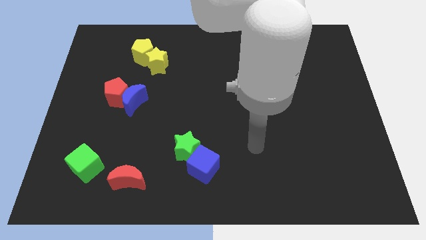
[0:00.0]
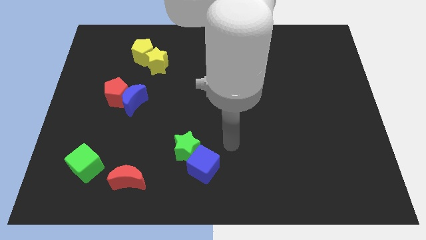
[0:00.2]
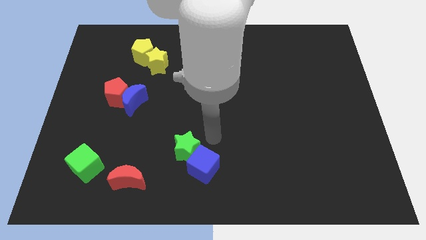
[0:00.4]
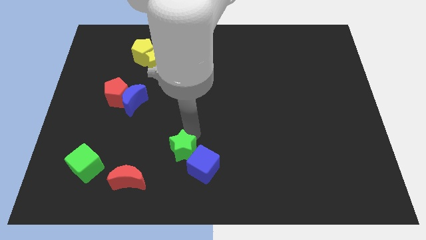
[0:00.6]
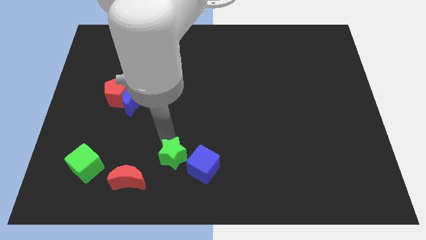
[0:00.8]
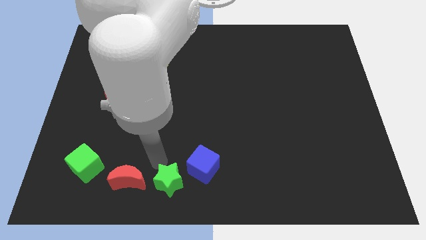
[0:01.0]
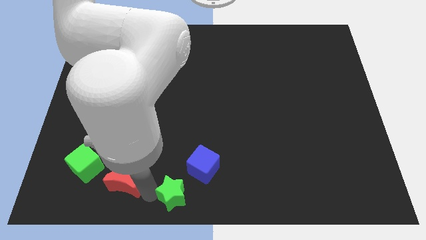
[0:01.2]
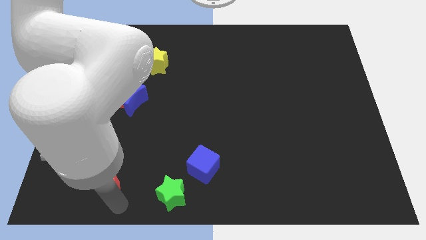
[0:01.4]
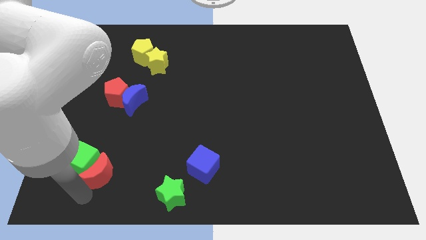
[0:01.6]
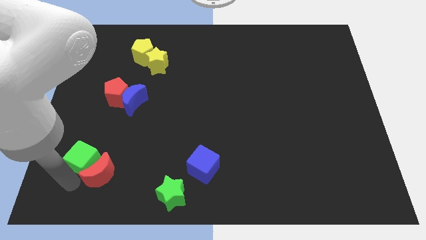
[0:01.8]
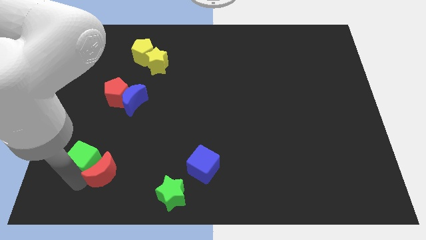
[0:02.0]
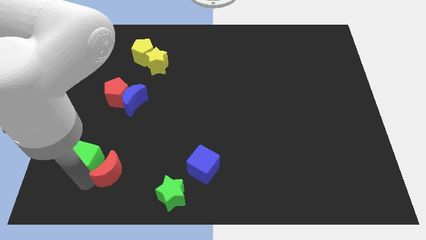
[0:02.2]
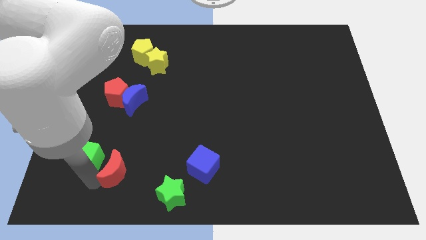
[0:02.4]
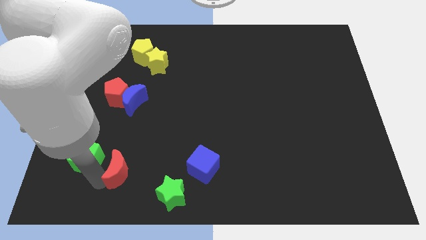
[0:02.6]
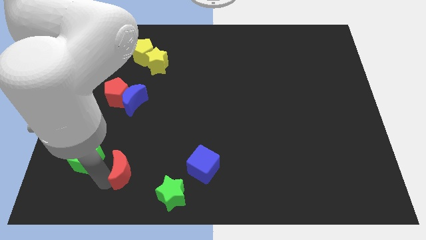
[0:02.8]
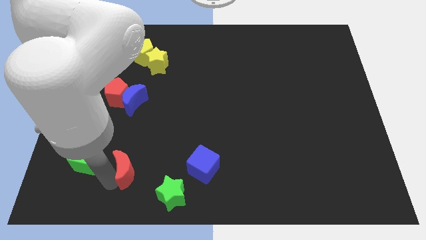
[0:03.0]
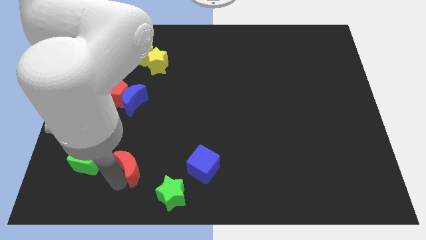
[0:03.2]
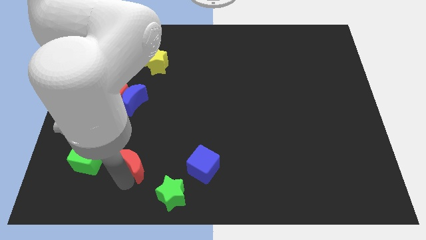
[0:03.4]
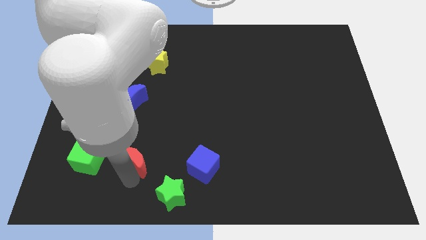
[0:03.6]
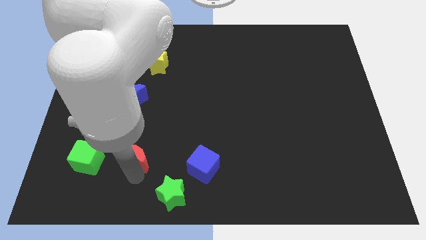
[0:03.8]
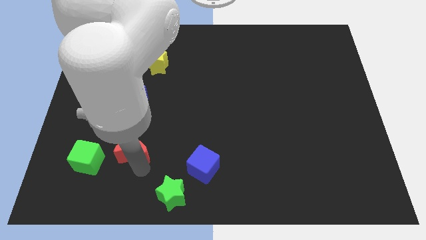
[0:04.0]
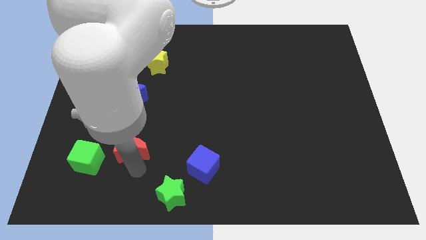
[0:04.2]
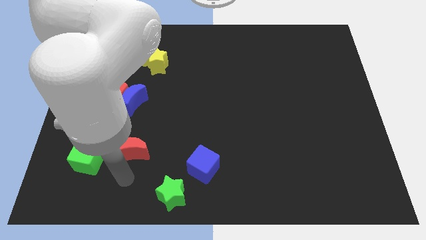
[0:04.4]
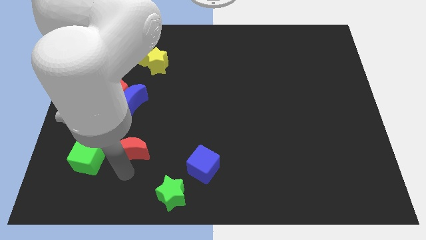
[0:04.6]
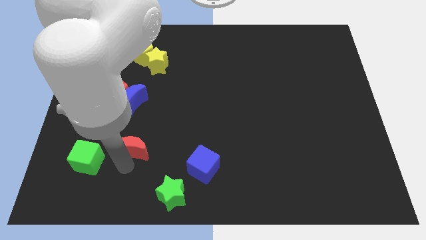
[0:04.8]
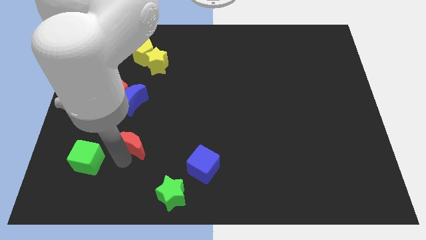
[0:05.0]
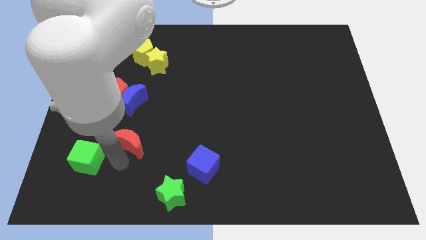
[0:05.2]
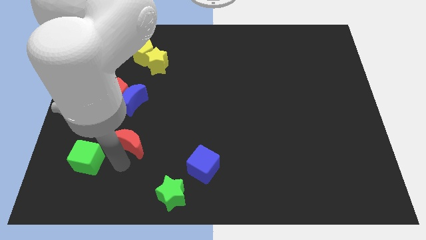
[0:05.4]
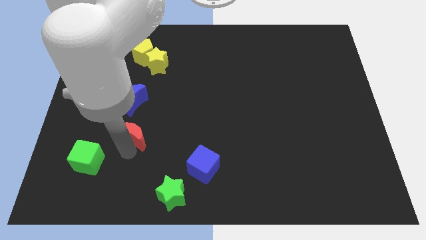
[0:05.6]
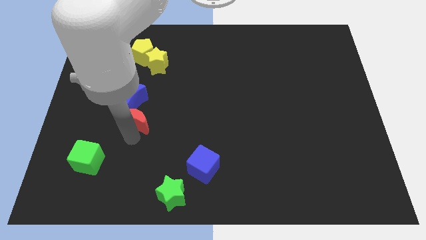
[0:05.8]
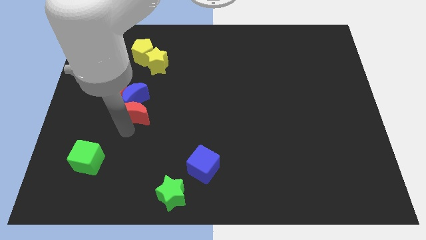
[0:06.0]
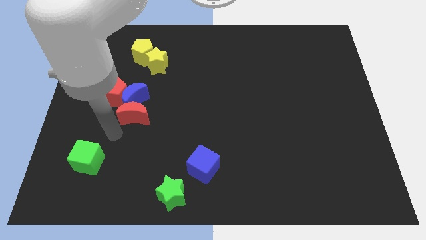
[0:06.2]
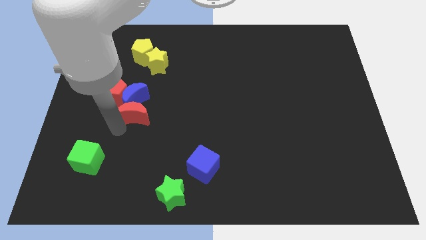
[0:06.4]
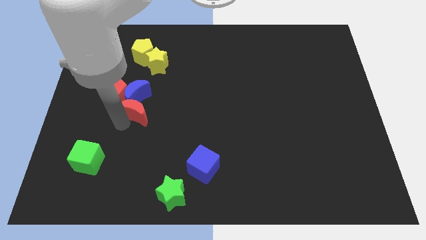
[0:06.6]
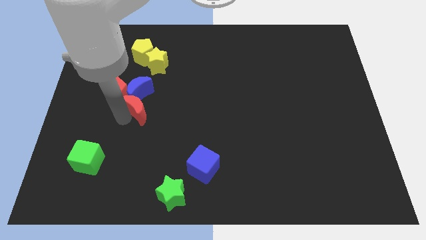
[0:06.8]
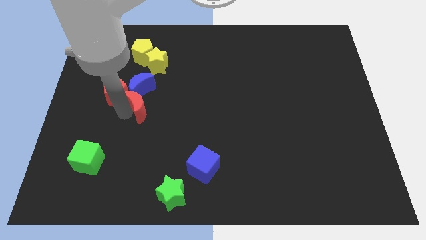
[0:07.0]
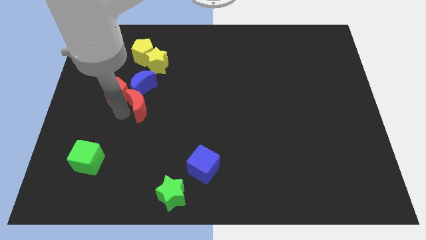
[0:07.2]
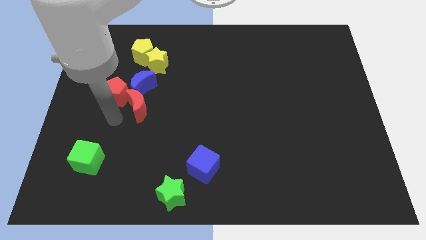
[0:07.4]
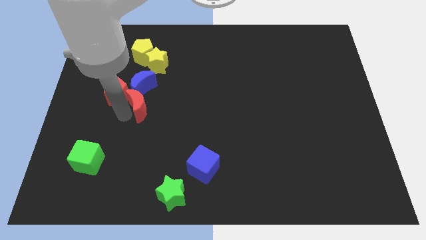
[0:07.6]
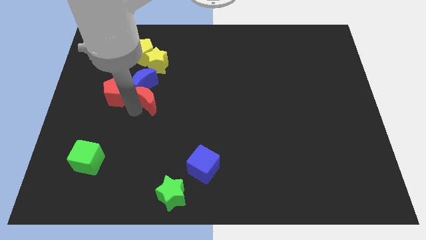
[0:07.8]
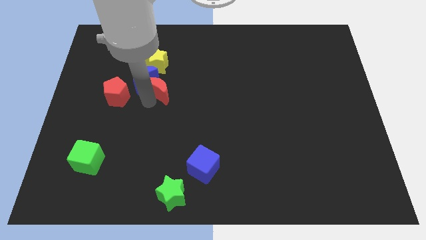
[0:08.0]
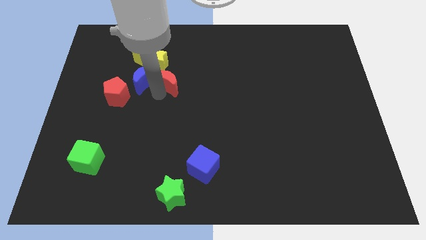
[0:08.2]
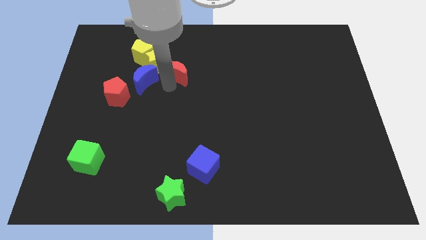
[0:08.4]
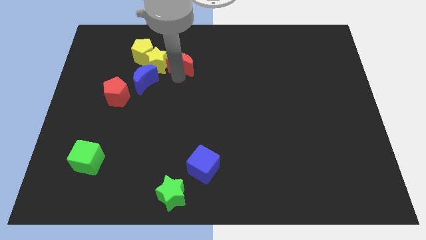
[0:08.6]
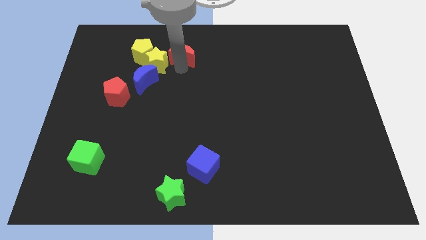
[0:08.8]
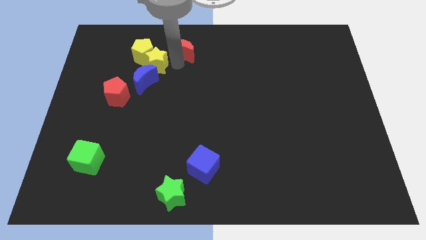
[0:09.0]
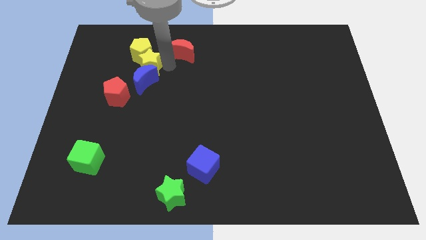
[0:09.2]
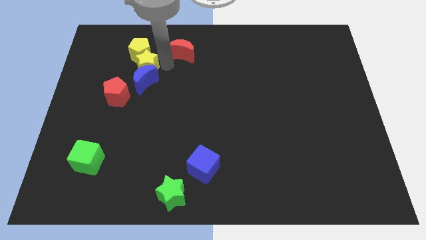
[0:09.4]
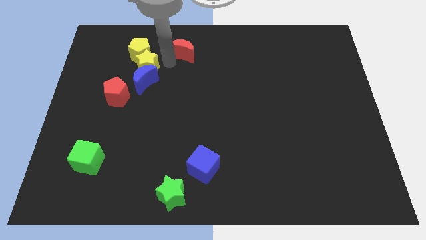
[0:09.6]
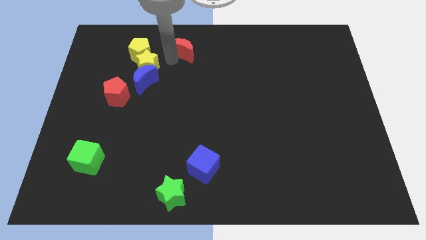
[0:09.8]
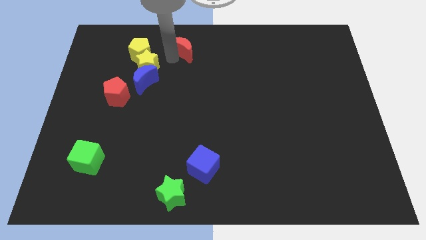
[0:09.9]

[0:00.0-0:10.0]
slide the red moon to the top

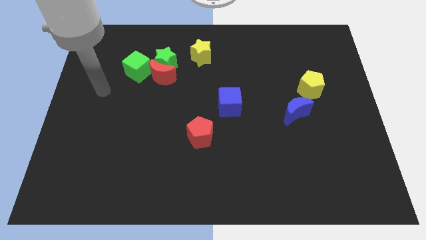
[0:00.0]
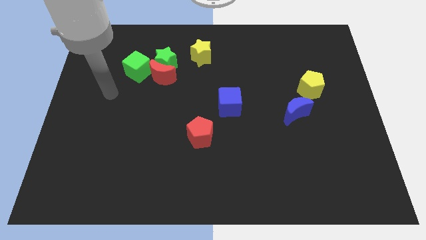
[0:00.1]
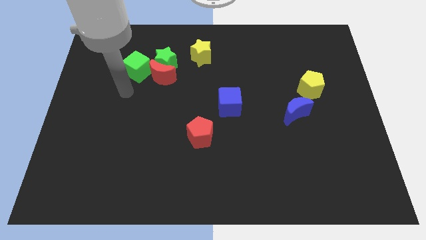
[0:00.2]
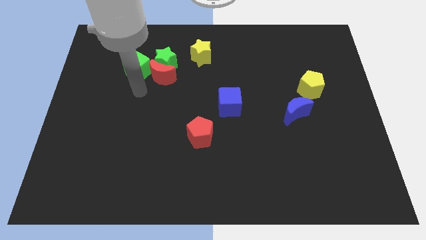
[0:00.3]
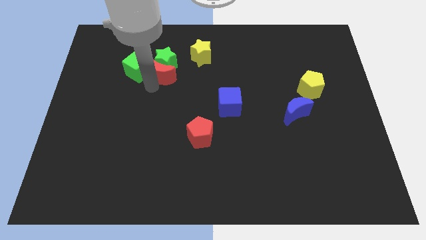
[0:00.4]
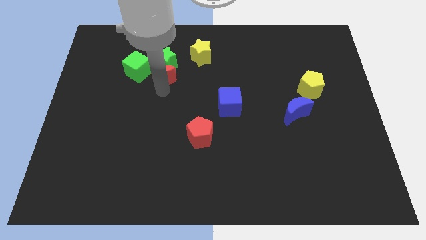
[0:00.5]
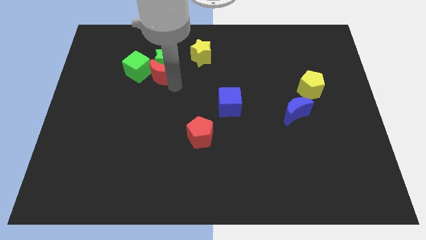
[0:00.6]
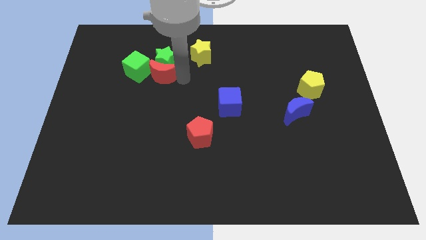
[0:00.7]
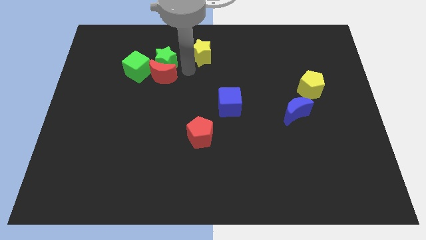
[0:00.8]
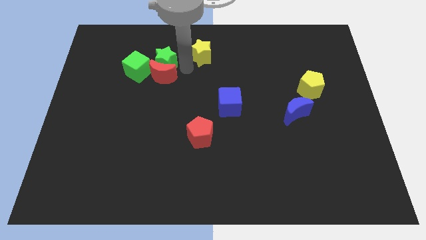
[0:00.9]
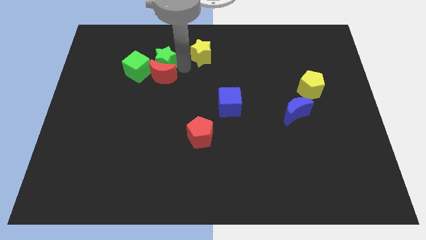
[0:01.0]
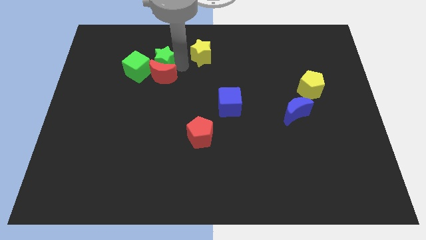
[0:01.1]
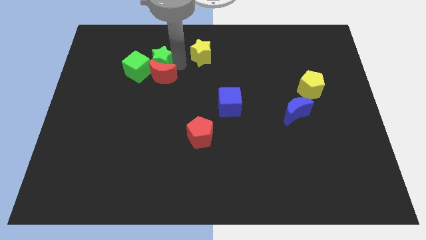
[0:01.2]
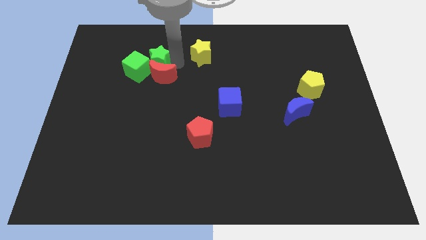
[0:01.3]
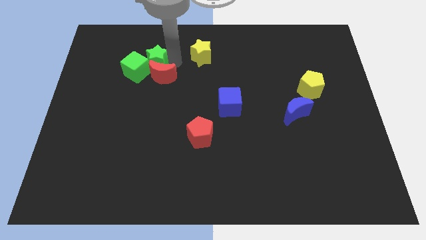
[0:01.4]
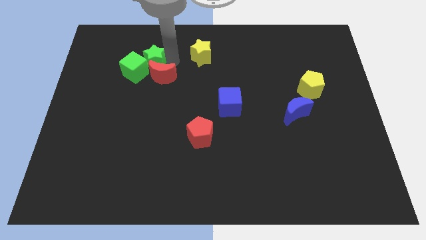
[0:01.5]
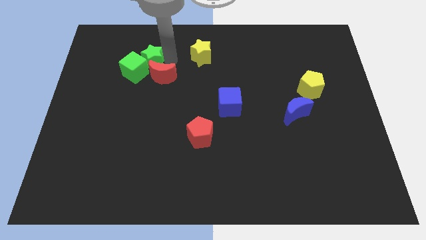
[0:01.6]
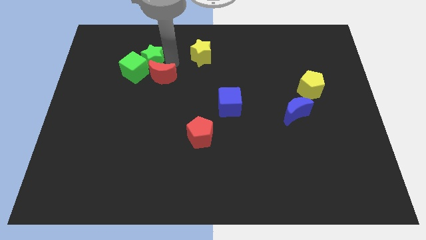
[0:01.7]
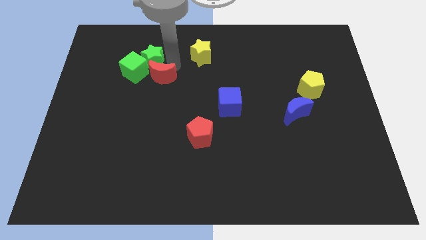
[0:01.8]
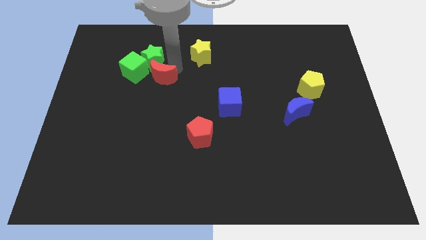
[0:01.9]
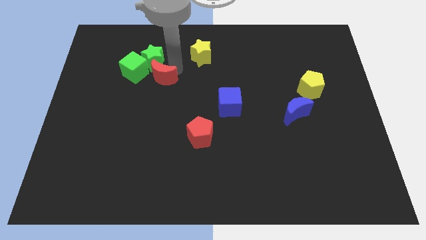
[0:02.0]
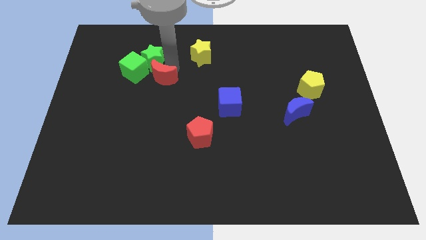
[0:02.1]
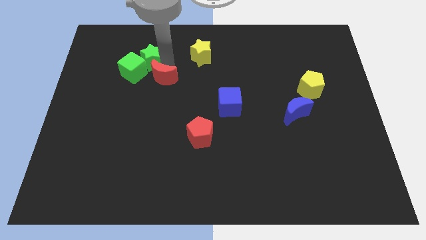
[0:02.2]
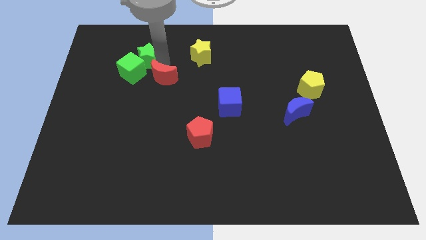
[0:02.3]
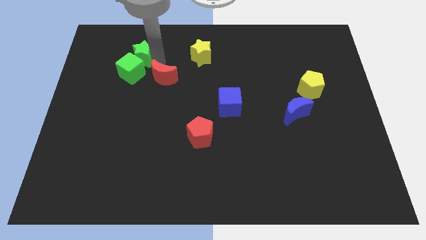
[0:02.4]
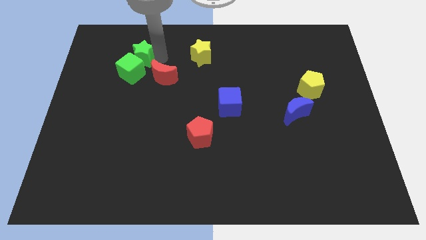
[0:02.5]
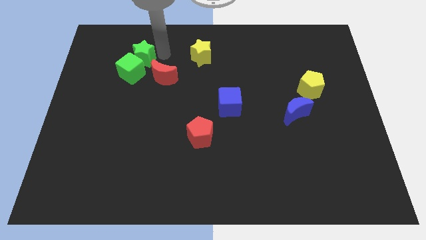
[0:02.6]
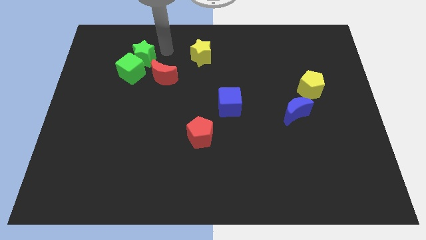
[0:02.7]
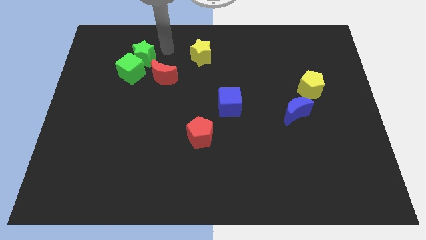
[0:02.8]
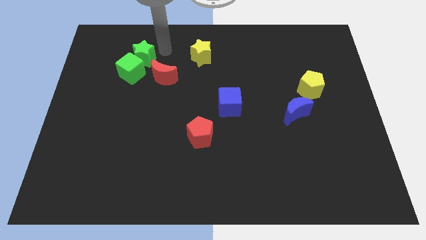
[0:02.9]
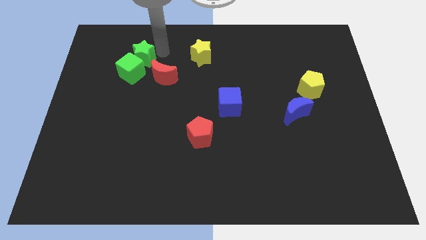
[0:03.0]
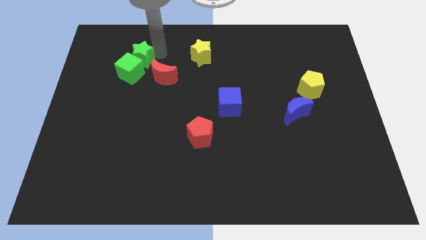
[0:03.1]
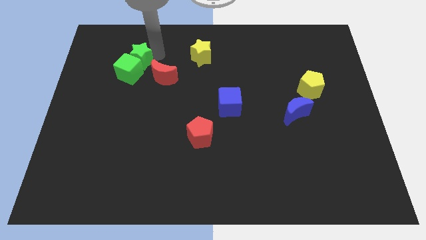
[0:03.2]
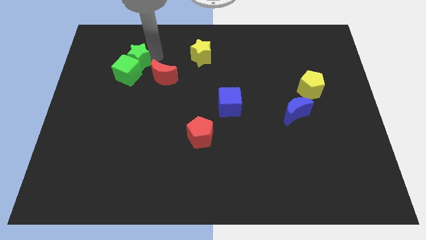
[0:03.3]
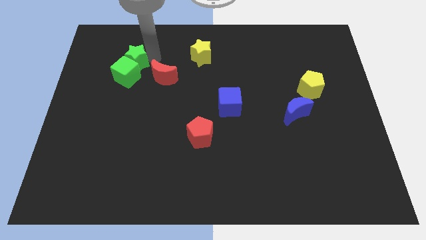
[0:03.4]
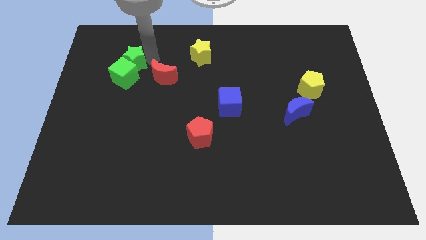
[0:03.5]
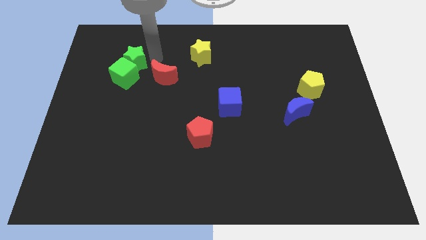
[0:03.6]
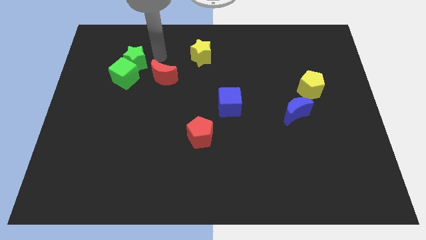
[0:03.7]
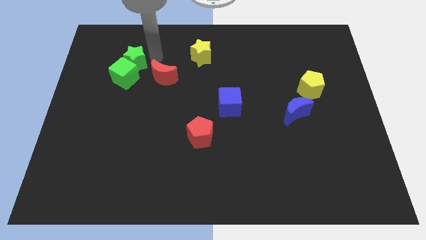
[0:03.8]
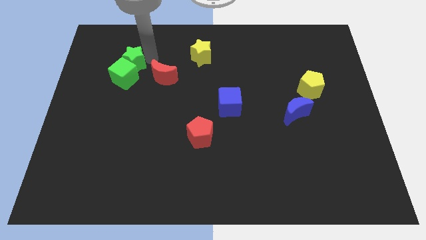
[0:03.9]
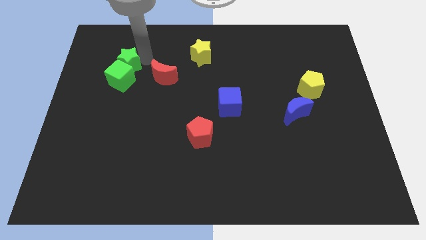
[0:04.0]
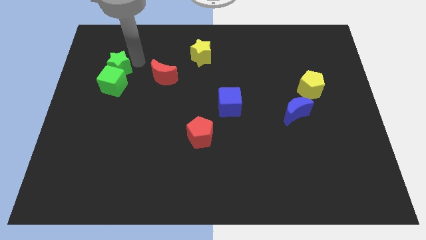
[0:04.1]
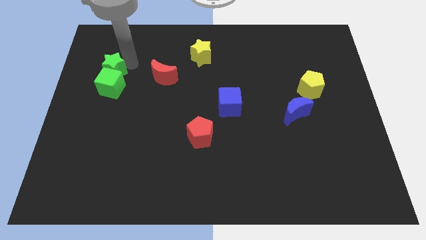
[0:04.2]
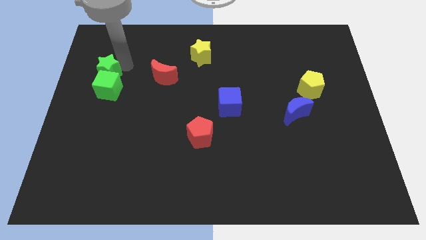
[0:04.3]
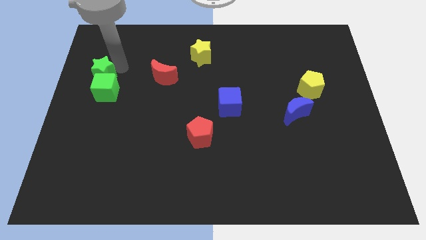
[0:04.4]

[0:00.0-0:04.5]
put the green star to the left side
